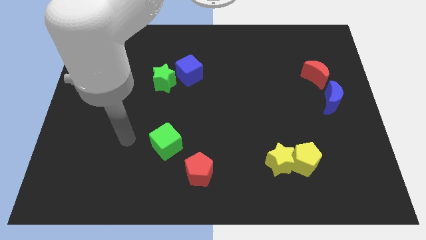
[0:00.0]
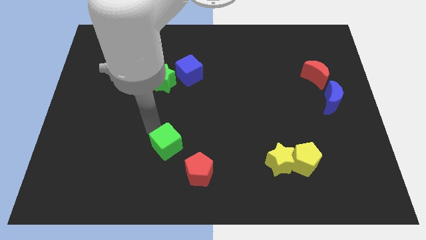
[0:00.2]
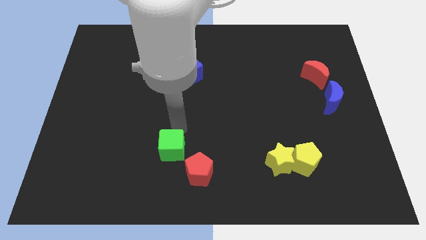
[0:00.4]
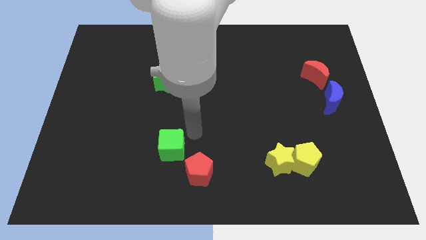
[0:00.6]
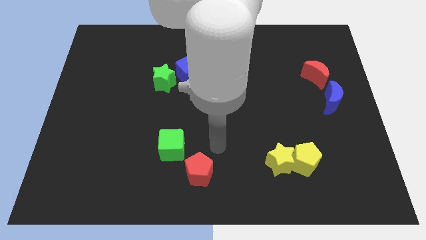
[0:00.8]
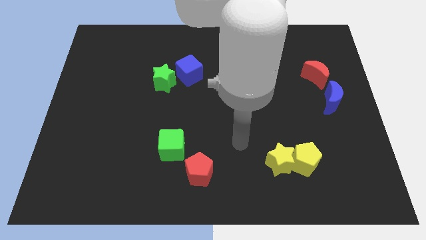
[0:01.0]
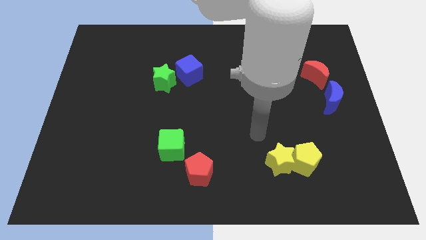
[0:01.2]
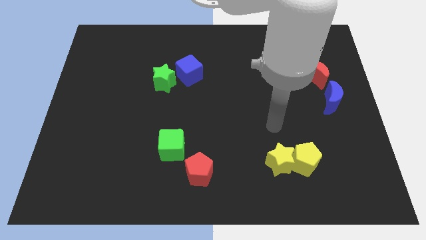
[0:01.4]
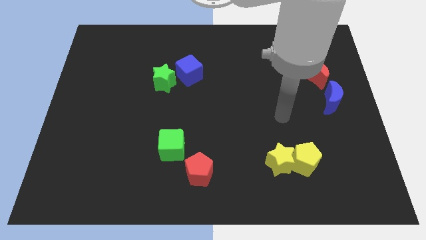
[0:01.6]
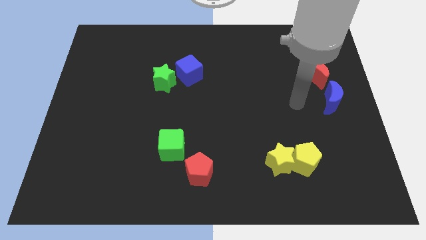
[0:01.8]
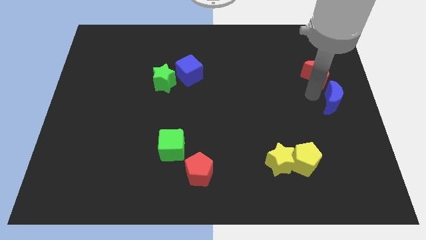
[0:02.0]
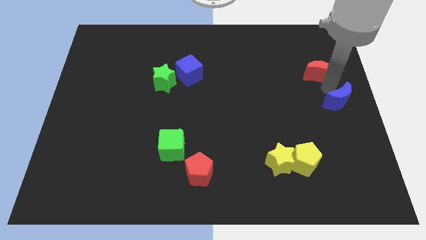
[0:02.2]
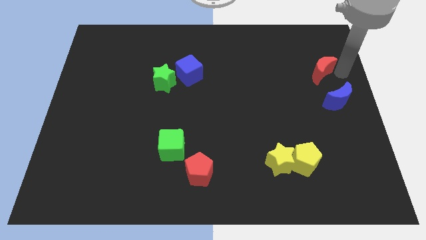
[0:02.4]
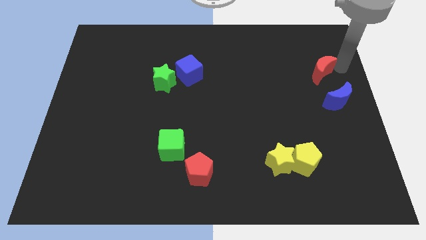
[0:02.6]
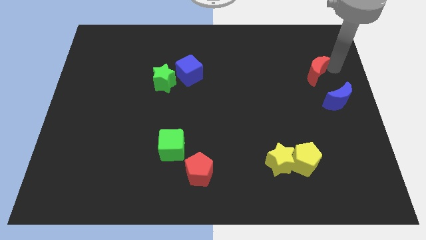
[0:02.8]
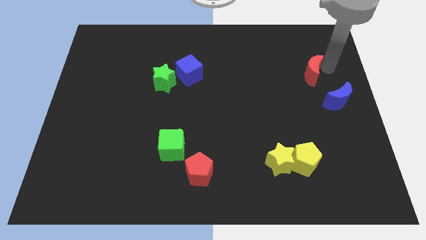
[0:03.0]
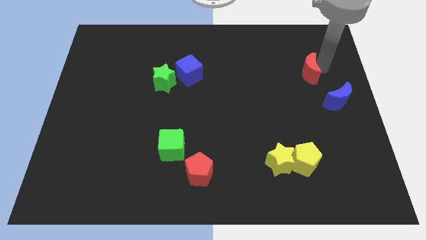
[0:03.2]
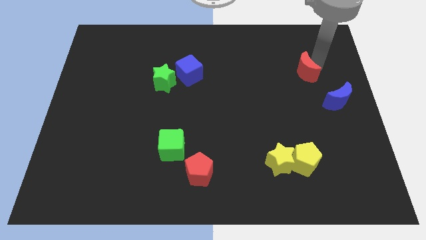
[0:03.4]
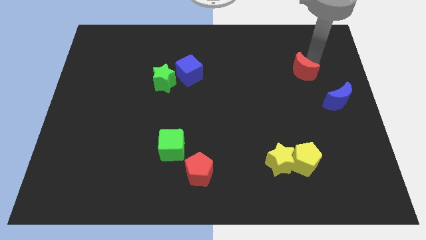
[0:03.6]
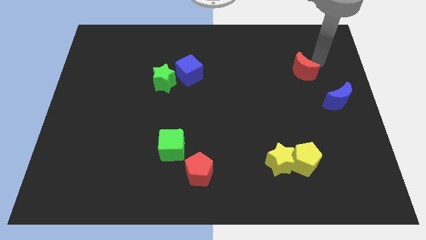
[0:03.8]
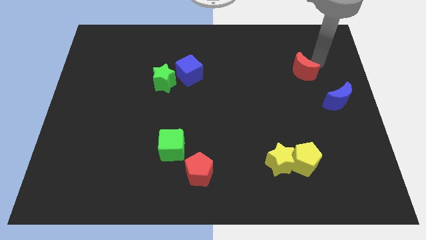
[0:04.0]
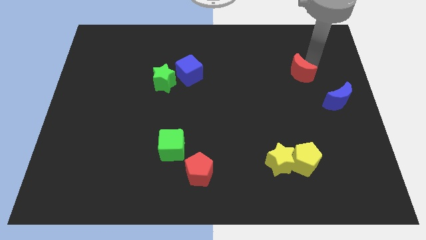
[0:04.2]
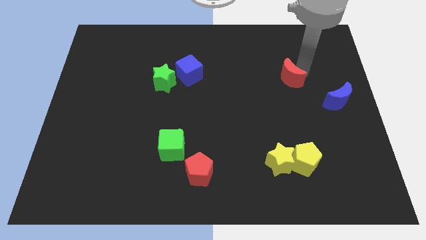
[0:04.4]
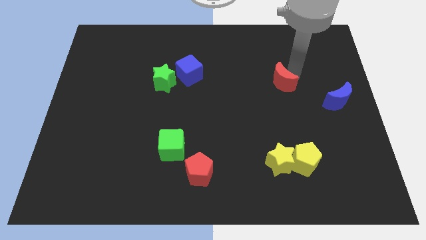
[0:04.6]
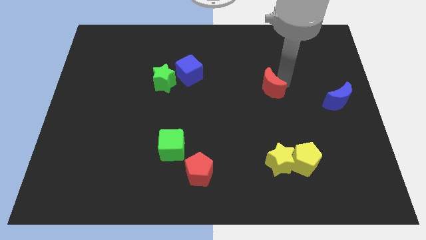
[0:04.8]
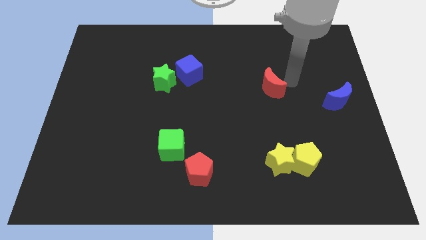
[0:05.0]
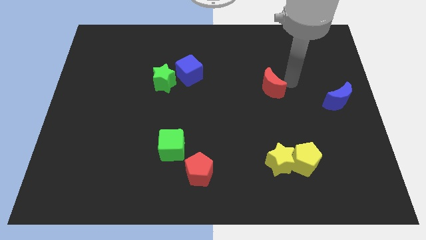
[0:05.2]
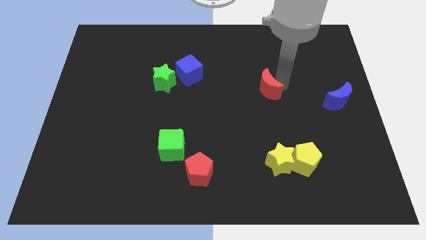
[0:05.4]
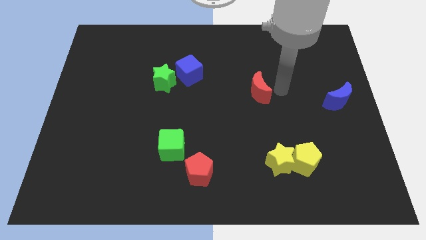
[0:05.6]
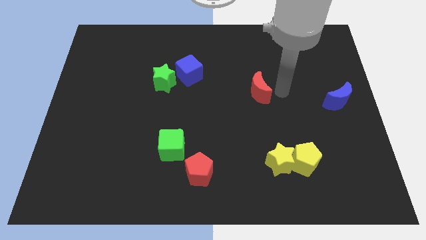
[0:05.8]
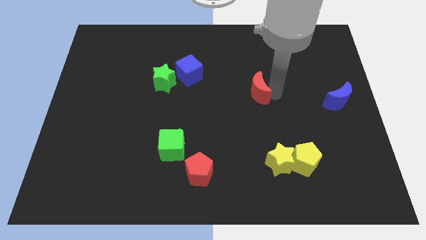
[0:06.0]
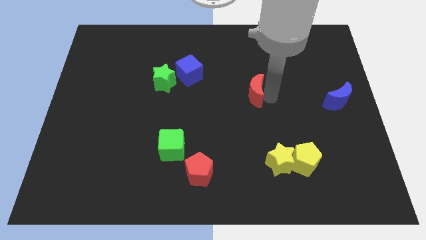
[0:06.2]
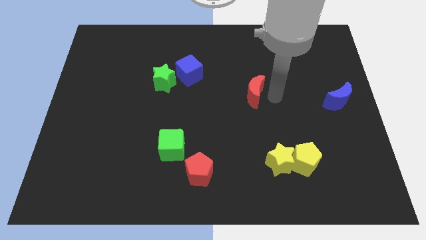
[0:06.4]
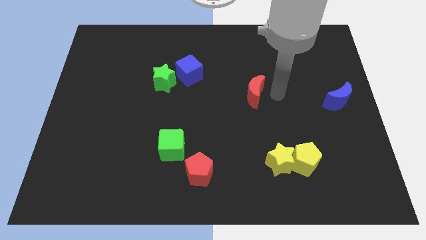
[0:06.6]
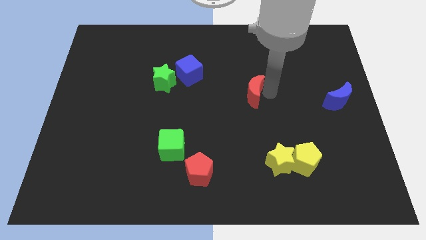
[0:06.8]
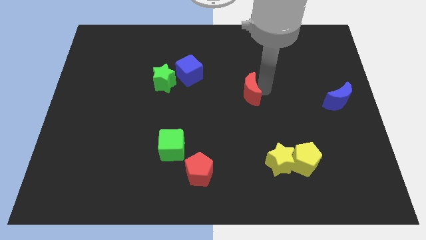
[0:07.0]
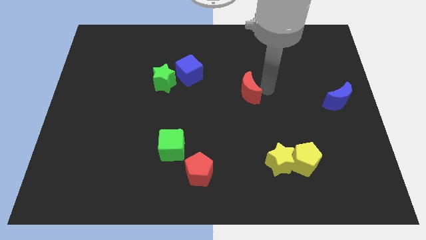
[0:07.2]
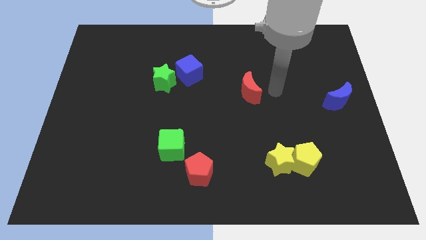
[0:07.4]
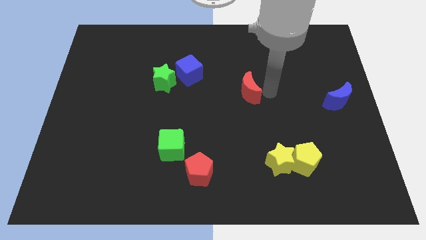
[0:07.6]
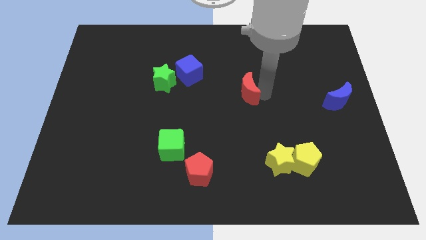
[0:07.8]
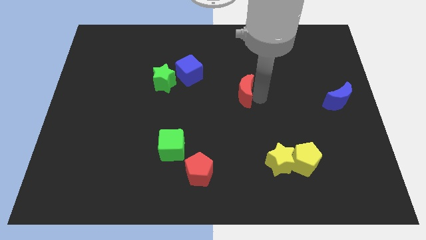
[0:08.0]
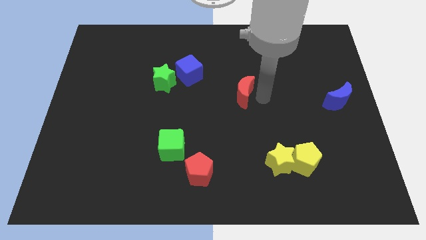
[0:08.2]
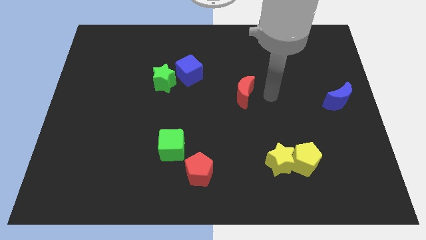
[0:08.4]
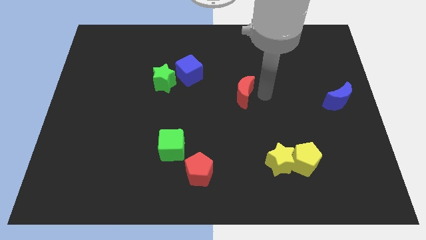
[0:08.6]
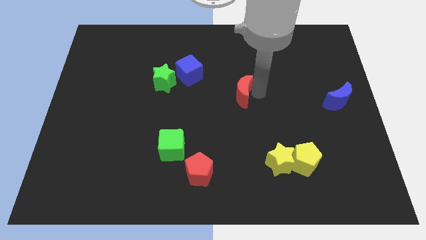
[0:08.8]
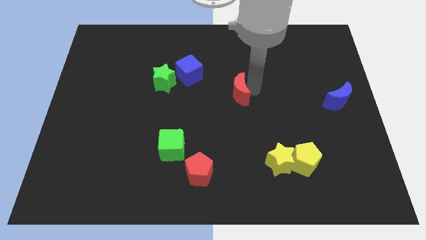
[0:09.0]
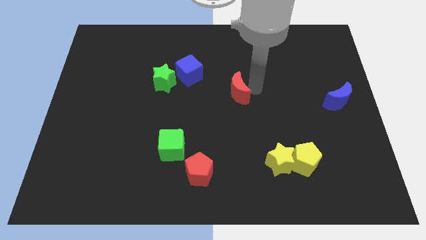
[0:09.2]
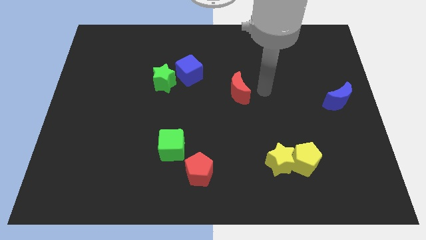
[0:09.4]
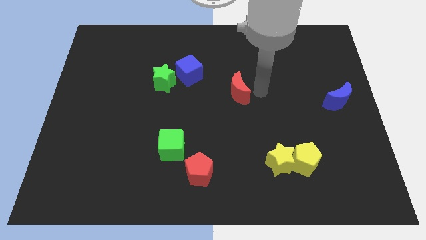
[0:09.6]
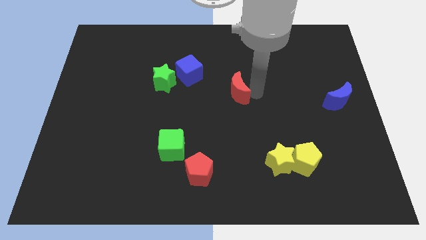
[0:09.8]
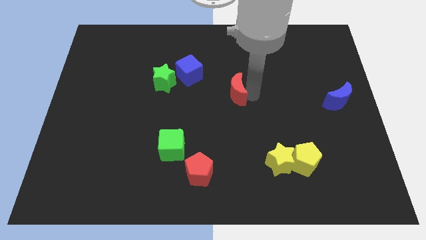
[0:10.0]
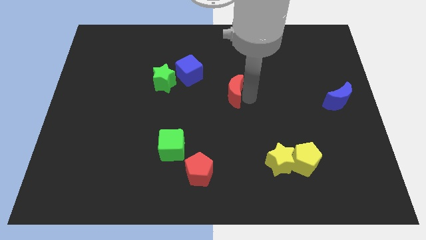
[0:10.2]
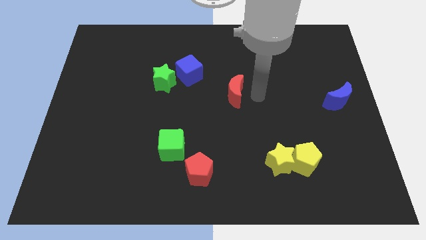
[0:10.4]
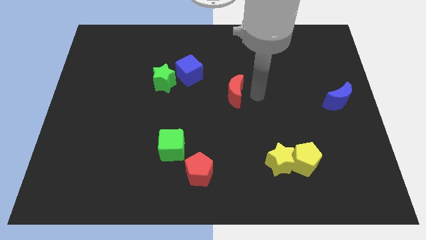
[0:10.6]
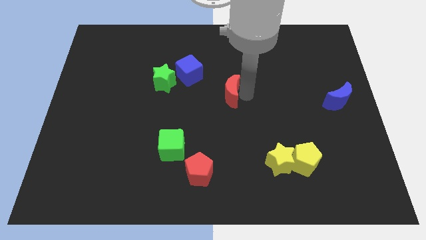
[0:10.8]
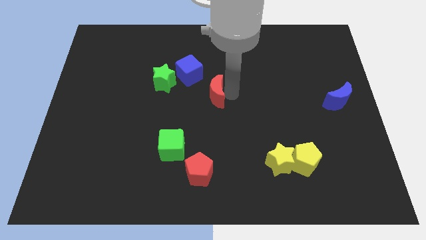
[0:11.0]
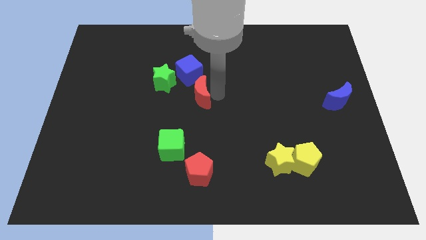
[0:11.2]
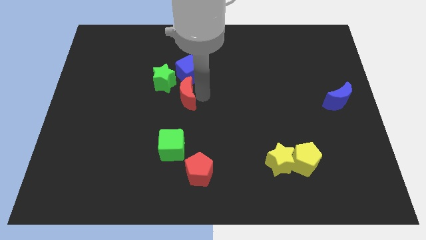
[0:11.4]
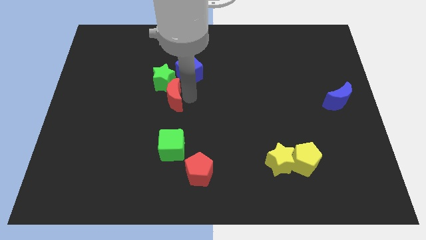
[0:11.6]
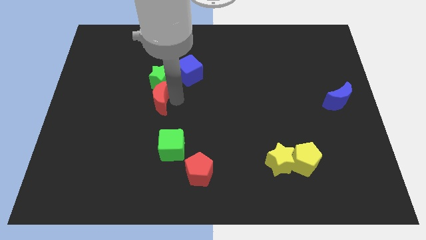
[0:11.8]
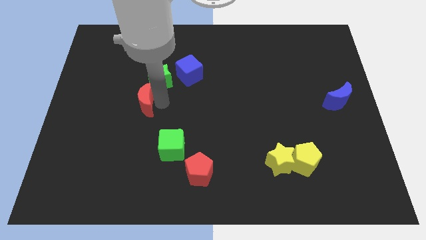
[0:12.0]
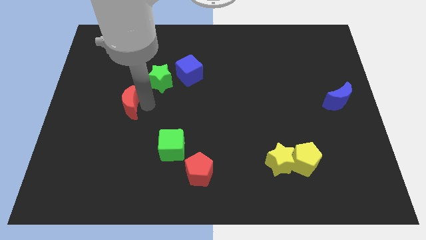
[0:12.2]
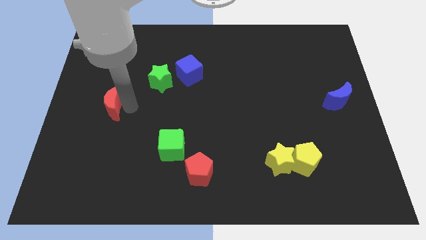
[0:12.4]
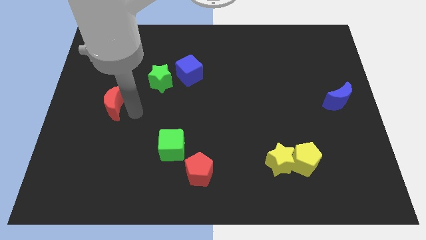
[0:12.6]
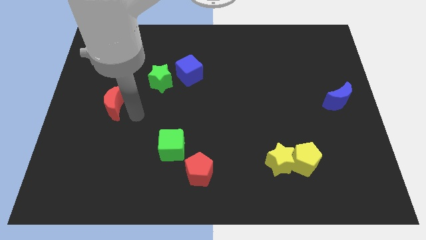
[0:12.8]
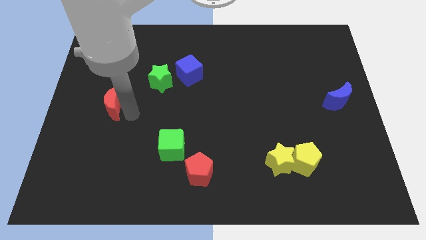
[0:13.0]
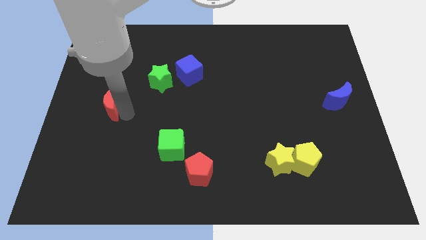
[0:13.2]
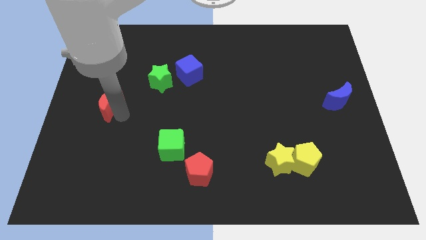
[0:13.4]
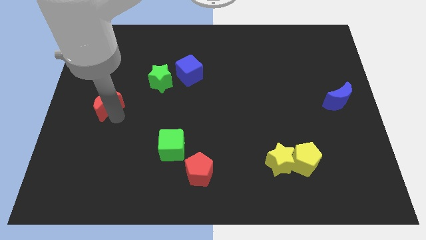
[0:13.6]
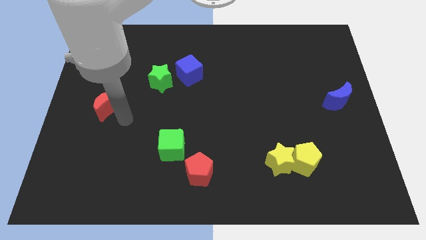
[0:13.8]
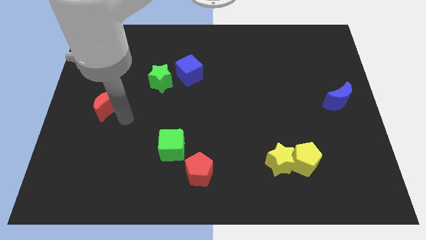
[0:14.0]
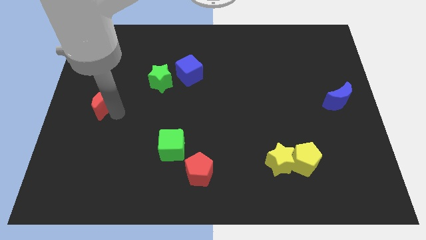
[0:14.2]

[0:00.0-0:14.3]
put the red moon to the left side

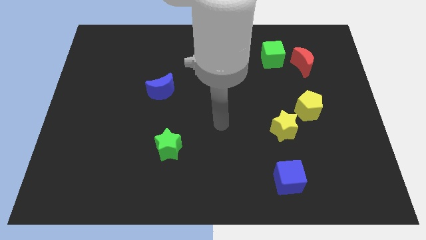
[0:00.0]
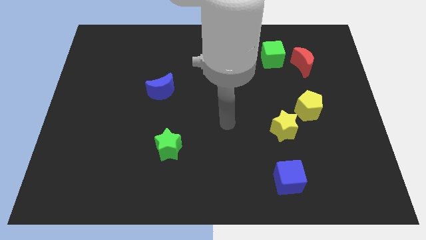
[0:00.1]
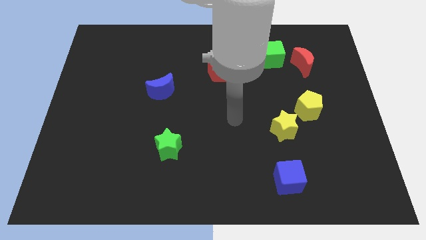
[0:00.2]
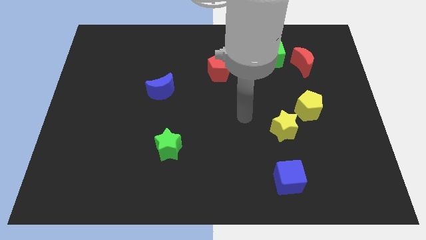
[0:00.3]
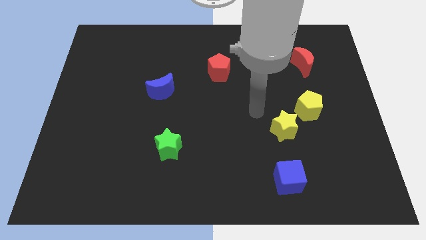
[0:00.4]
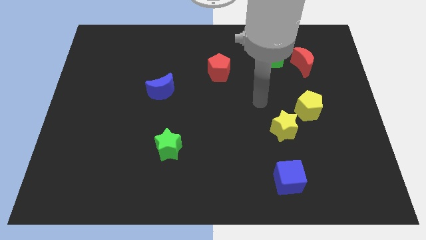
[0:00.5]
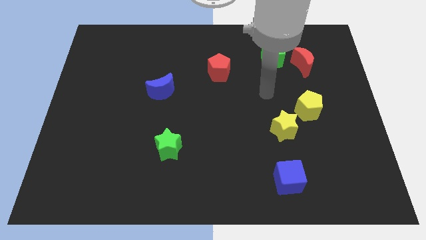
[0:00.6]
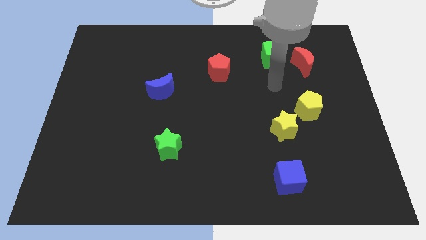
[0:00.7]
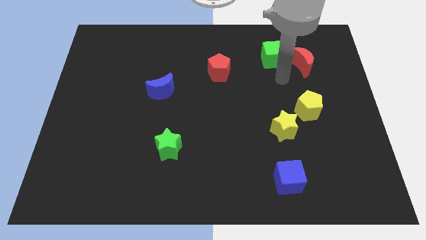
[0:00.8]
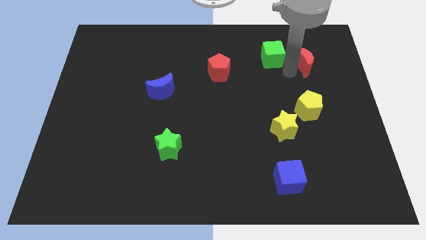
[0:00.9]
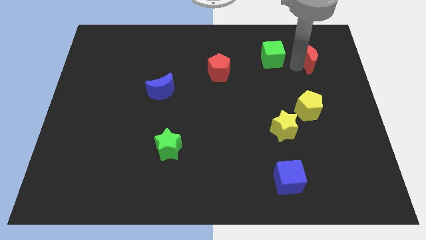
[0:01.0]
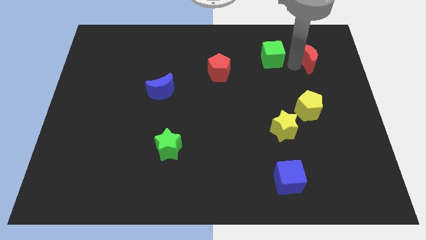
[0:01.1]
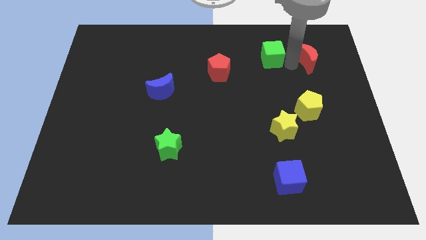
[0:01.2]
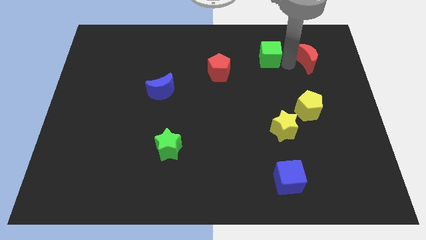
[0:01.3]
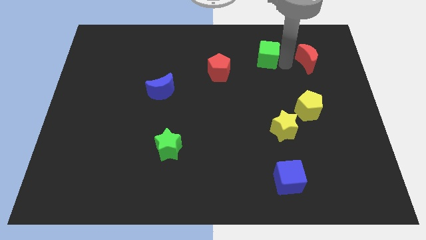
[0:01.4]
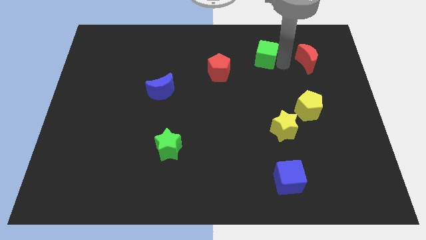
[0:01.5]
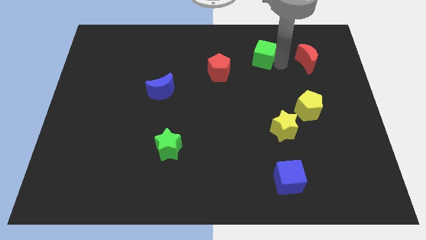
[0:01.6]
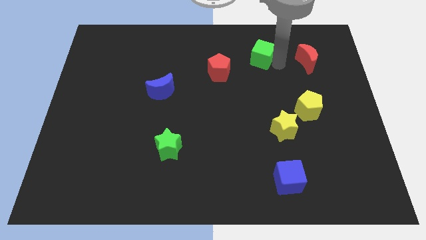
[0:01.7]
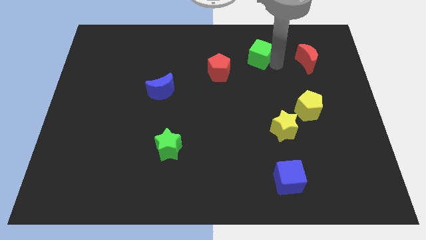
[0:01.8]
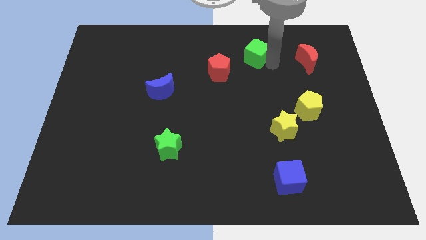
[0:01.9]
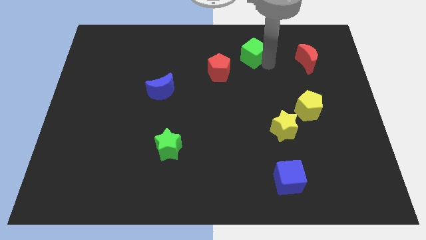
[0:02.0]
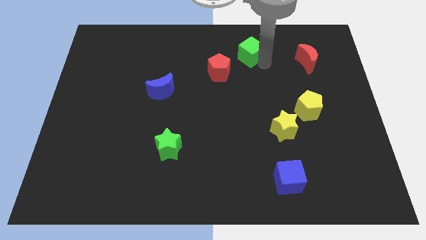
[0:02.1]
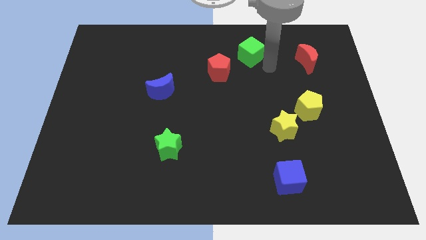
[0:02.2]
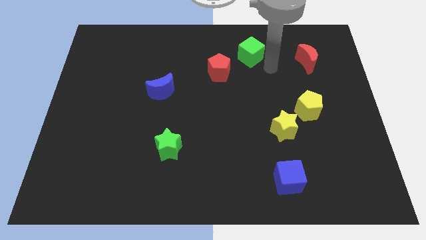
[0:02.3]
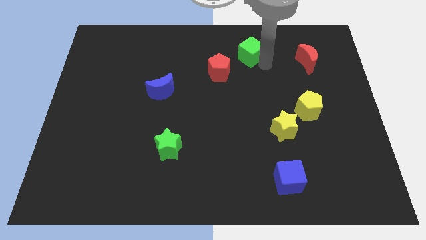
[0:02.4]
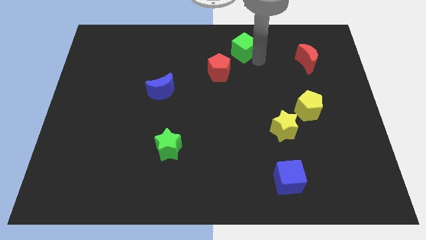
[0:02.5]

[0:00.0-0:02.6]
push the green cube to the towards your base
